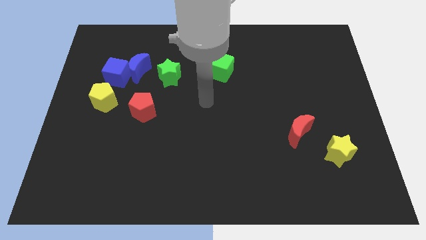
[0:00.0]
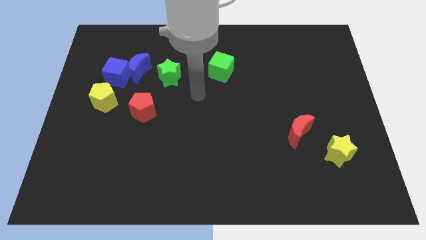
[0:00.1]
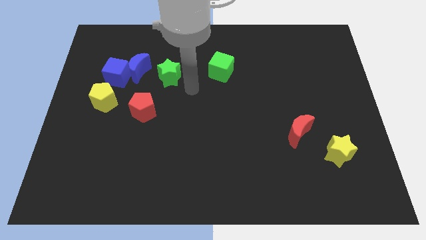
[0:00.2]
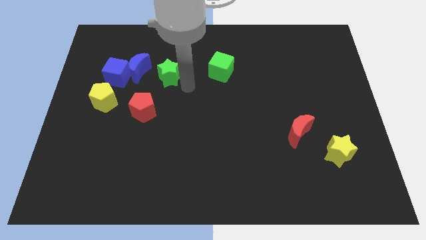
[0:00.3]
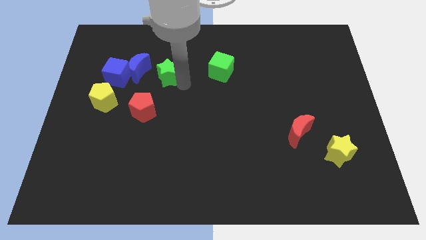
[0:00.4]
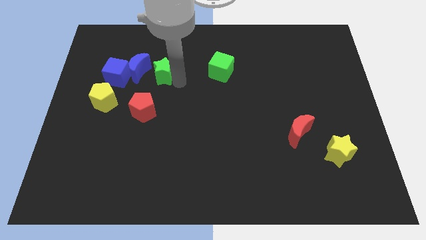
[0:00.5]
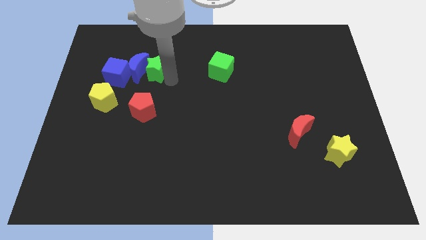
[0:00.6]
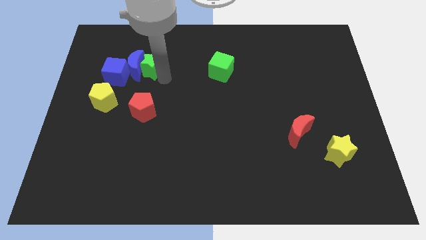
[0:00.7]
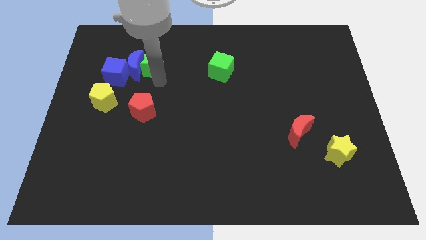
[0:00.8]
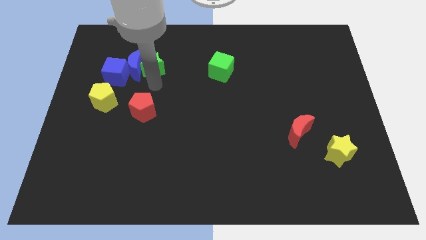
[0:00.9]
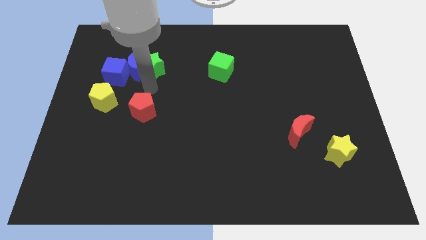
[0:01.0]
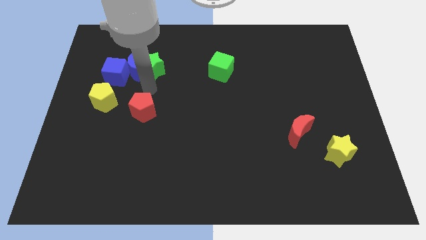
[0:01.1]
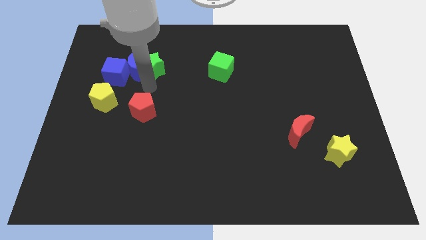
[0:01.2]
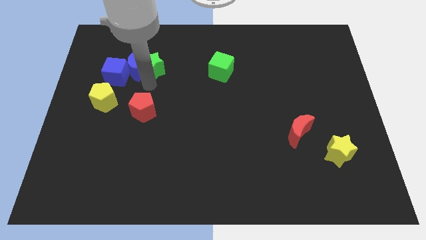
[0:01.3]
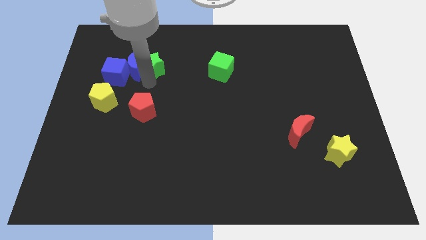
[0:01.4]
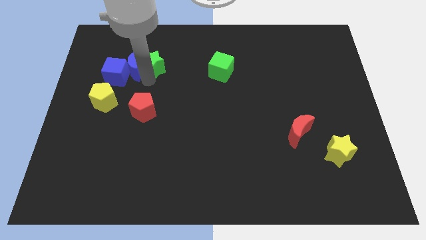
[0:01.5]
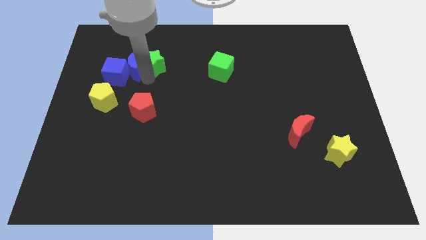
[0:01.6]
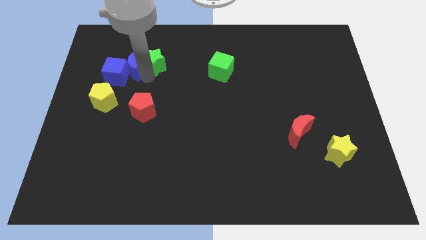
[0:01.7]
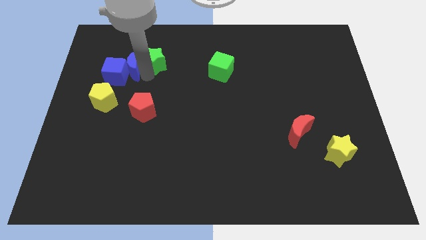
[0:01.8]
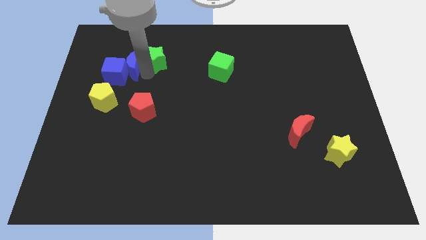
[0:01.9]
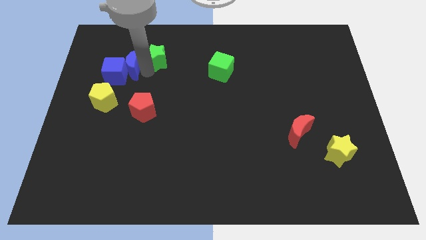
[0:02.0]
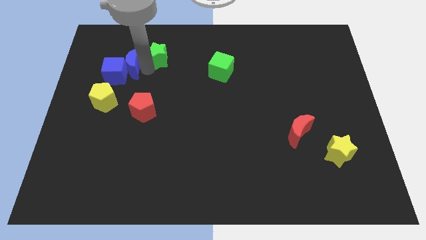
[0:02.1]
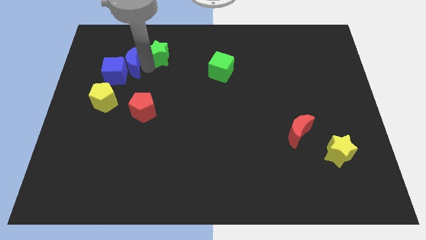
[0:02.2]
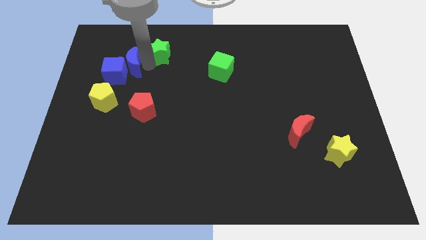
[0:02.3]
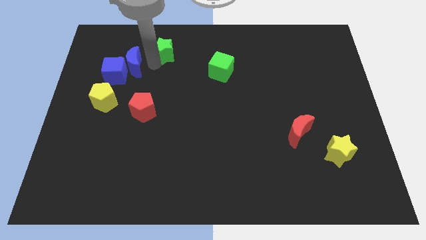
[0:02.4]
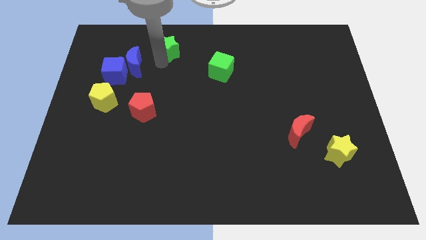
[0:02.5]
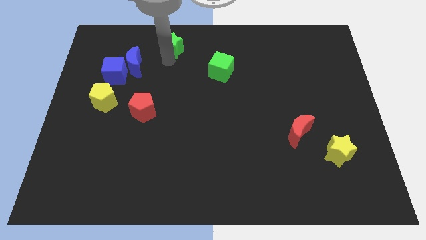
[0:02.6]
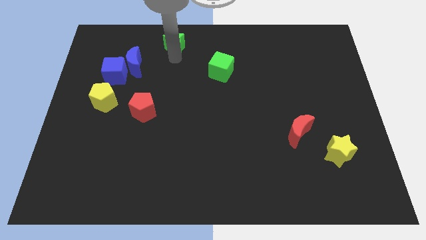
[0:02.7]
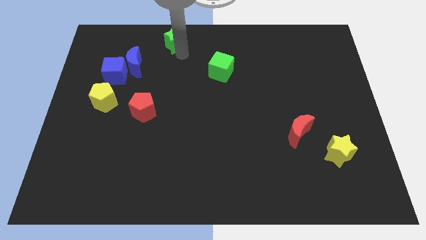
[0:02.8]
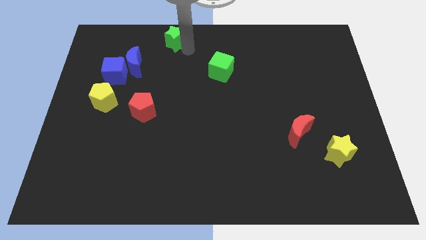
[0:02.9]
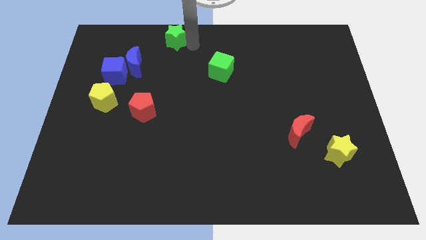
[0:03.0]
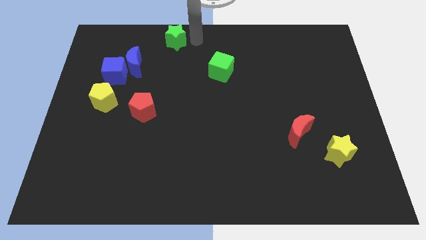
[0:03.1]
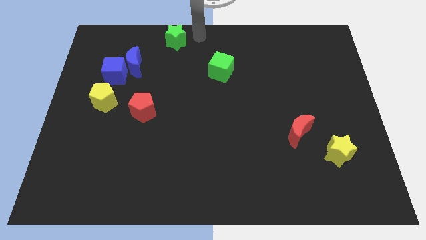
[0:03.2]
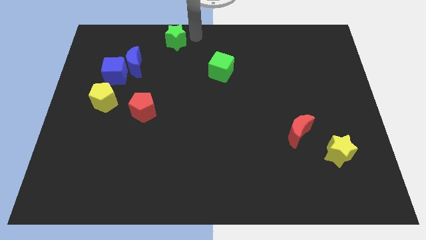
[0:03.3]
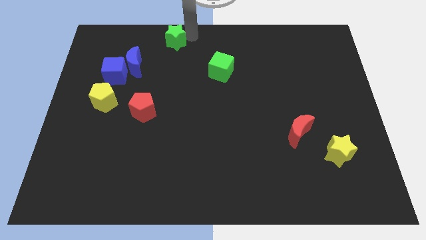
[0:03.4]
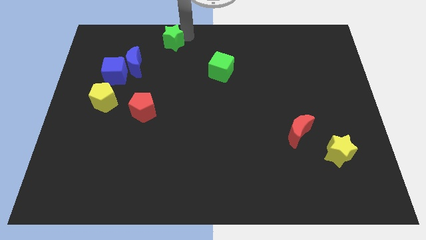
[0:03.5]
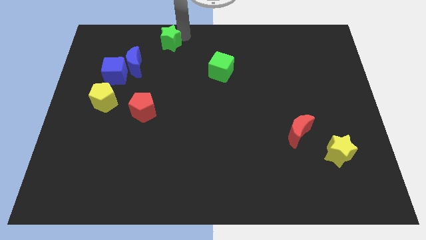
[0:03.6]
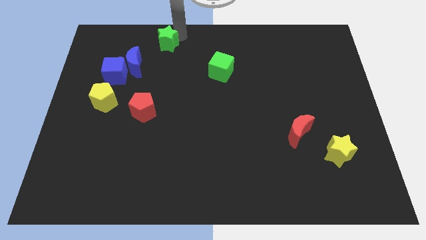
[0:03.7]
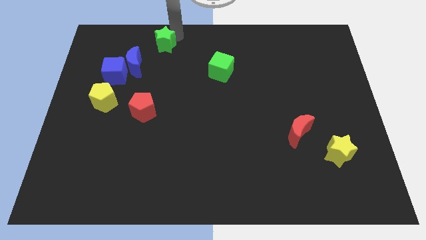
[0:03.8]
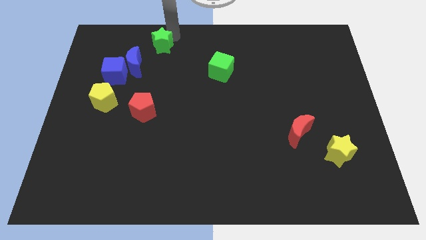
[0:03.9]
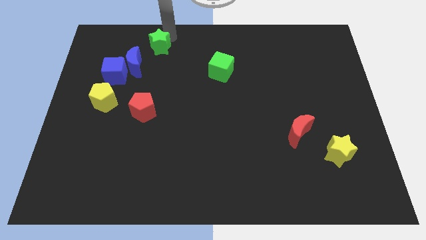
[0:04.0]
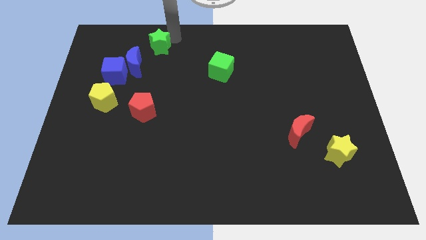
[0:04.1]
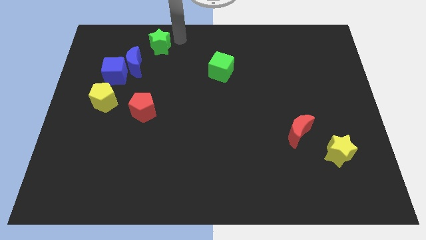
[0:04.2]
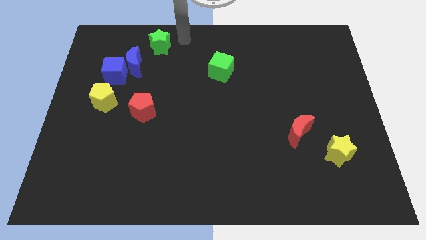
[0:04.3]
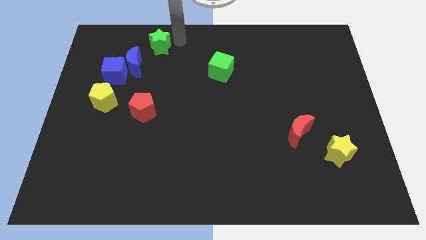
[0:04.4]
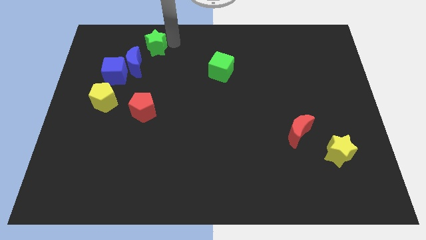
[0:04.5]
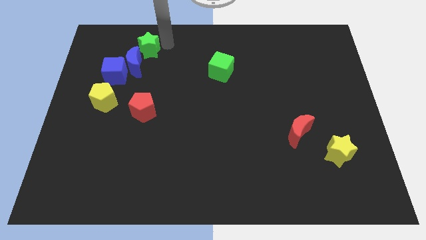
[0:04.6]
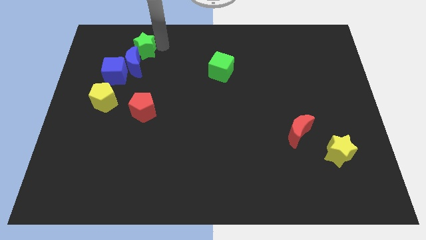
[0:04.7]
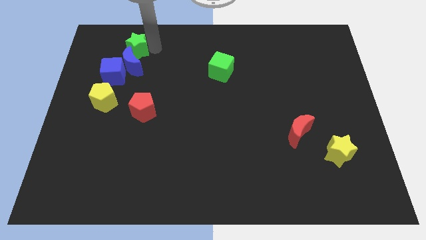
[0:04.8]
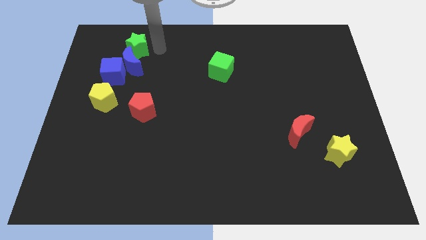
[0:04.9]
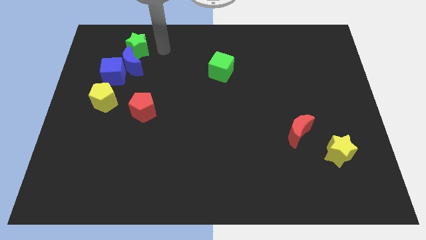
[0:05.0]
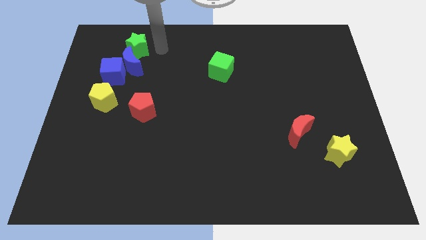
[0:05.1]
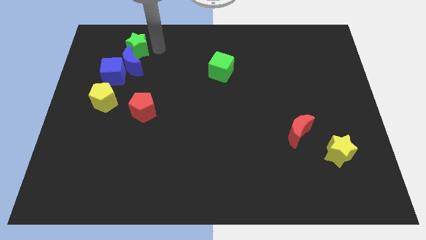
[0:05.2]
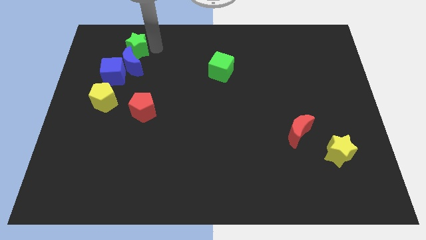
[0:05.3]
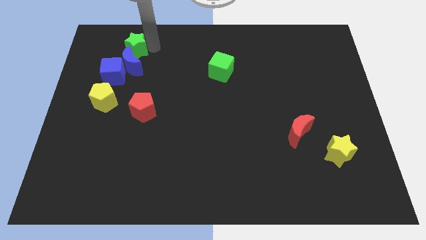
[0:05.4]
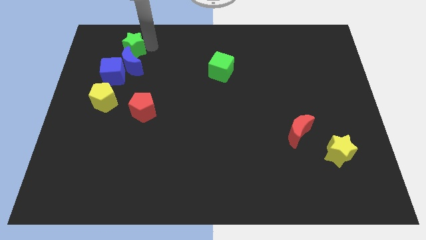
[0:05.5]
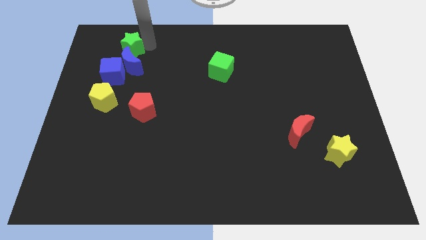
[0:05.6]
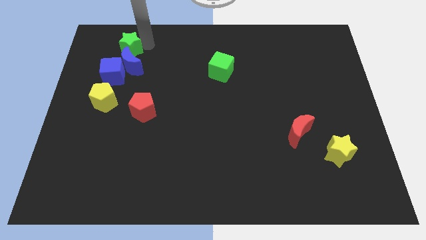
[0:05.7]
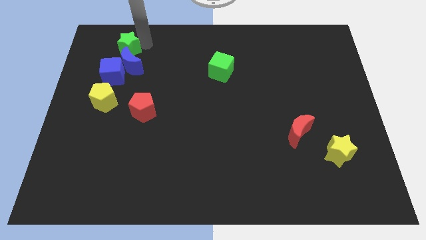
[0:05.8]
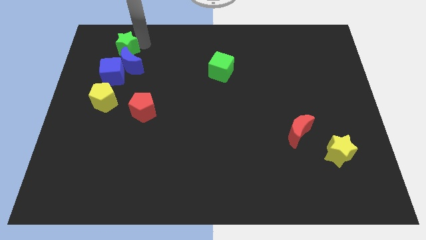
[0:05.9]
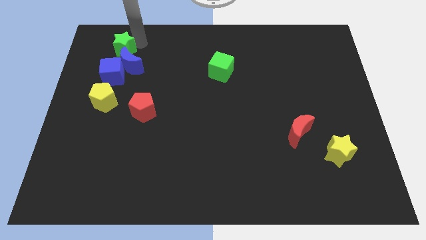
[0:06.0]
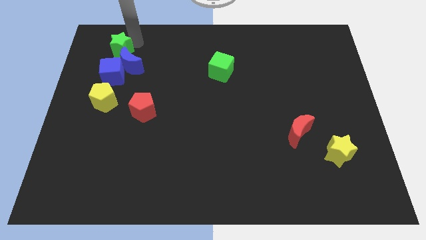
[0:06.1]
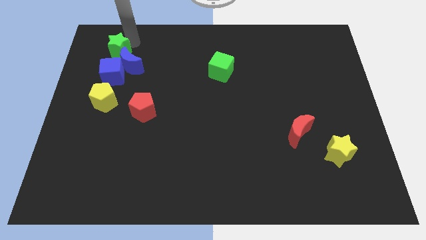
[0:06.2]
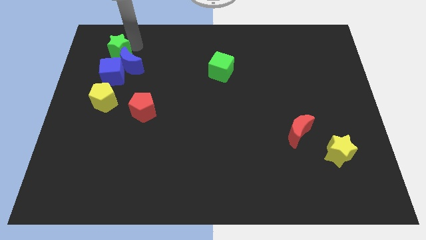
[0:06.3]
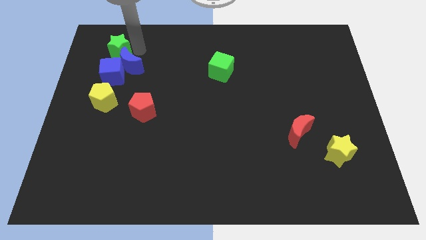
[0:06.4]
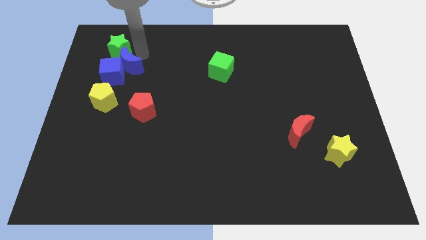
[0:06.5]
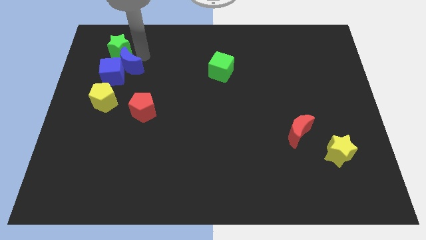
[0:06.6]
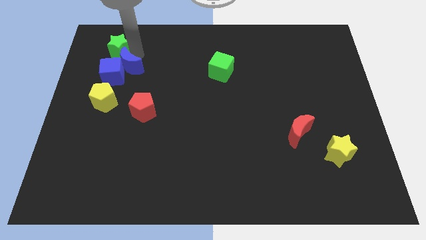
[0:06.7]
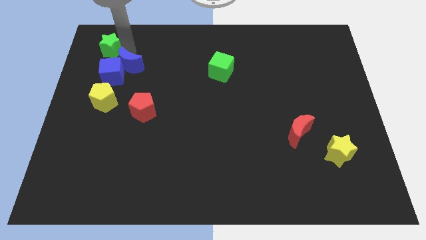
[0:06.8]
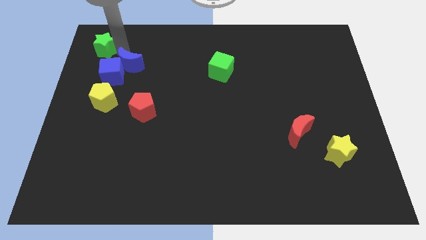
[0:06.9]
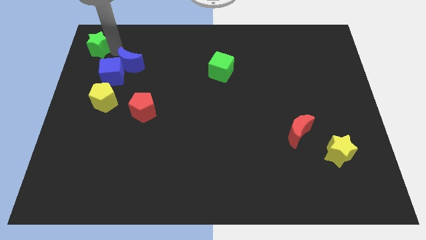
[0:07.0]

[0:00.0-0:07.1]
move the green star to the top left corner

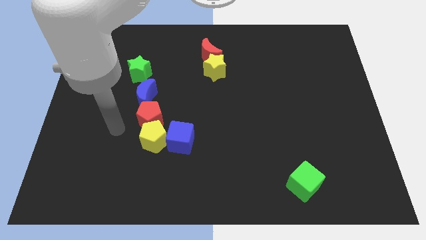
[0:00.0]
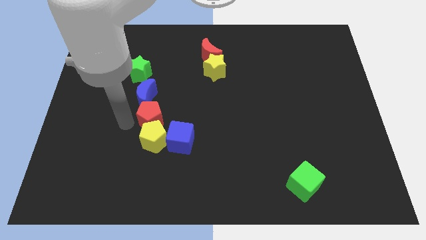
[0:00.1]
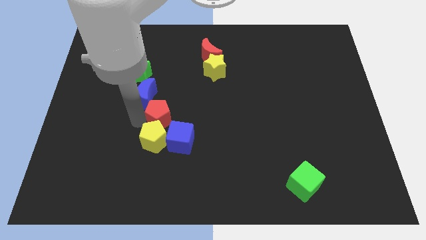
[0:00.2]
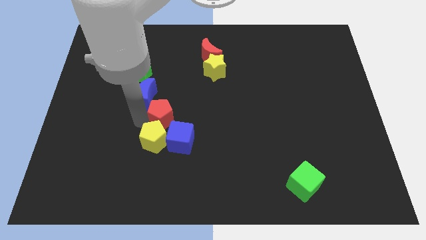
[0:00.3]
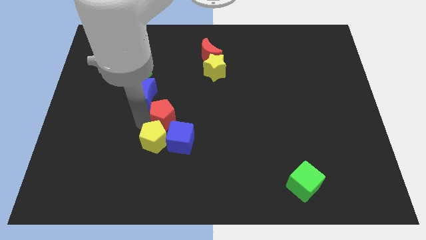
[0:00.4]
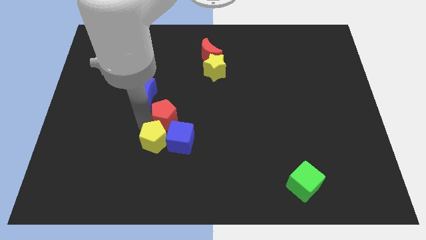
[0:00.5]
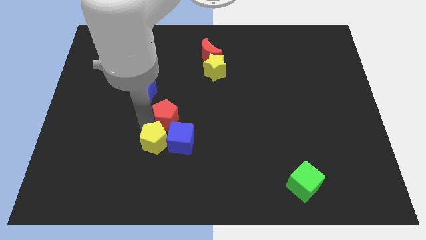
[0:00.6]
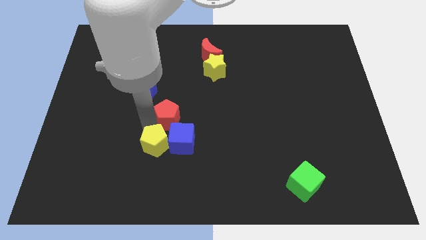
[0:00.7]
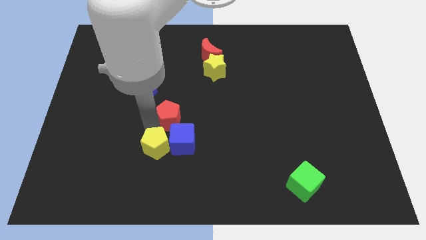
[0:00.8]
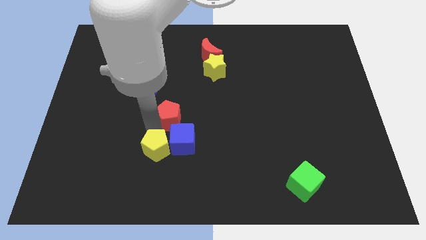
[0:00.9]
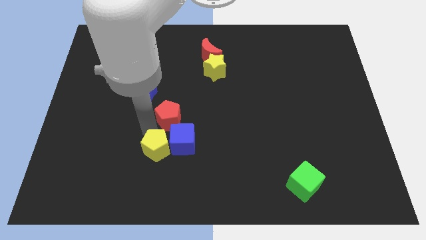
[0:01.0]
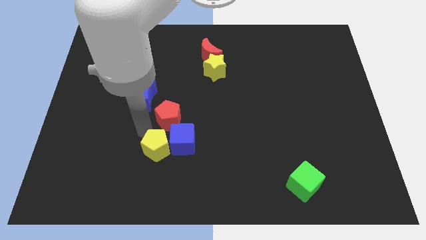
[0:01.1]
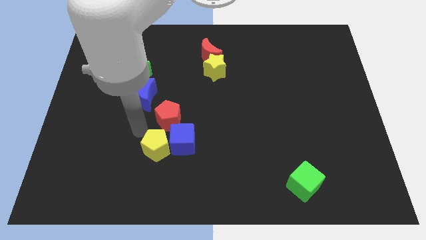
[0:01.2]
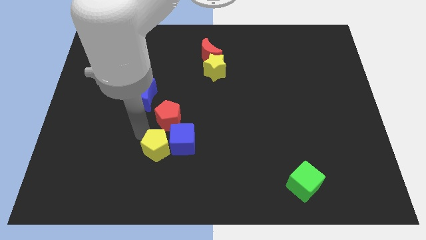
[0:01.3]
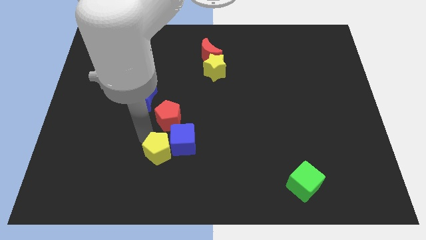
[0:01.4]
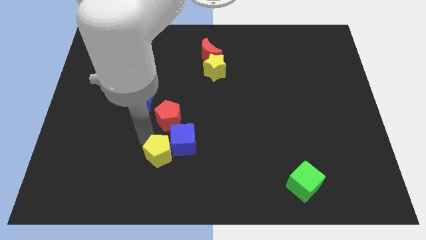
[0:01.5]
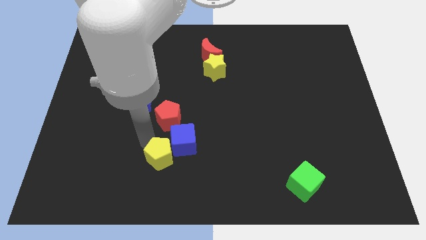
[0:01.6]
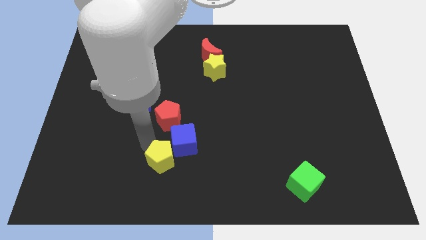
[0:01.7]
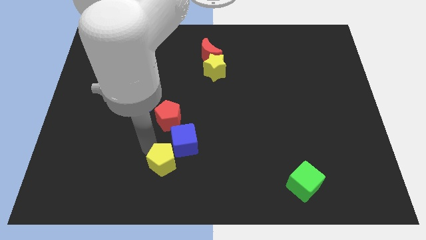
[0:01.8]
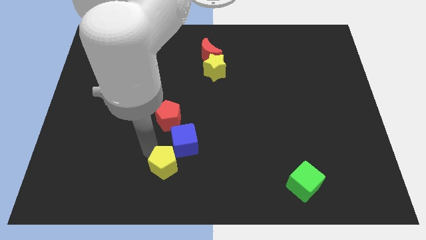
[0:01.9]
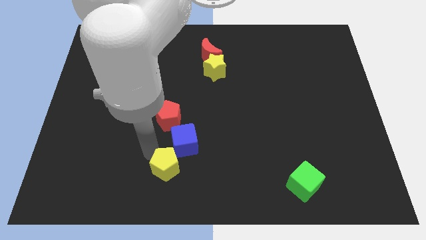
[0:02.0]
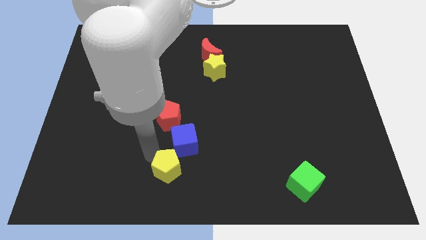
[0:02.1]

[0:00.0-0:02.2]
put the yellow pentagon to the bottom
